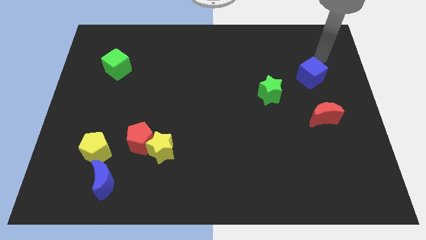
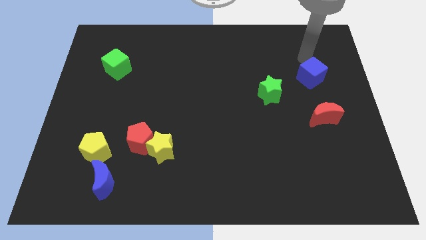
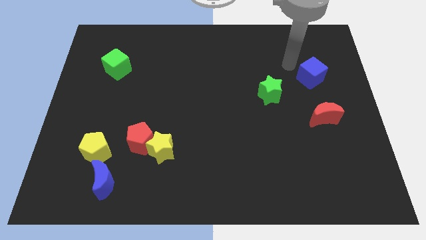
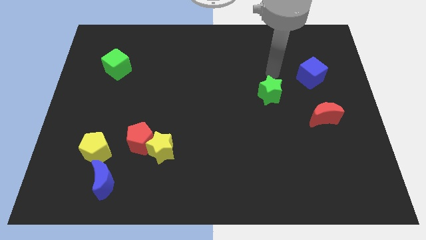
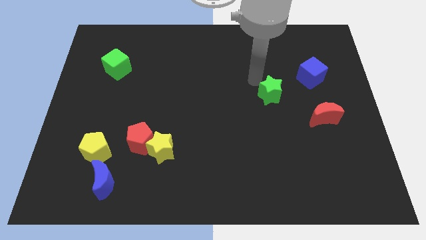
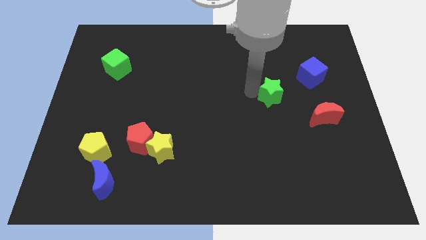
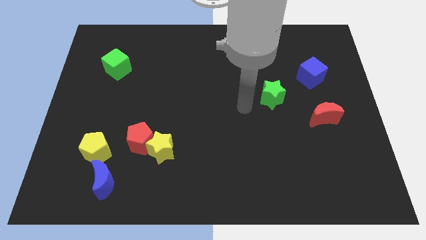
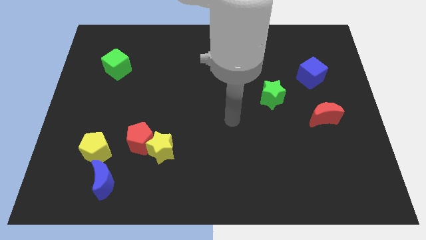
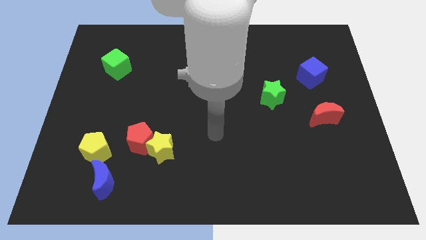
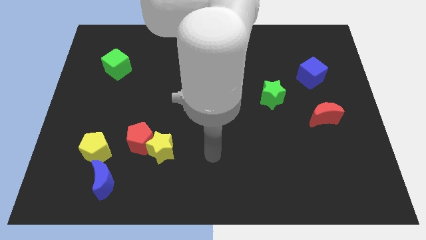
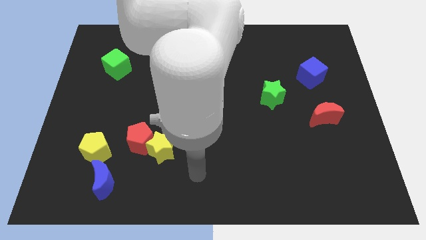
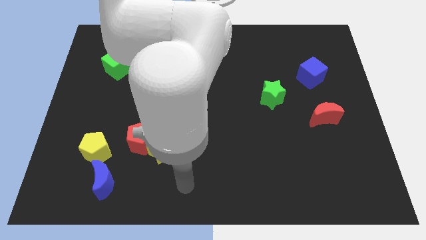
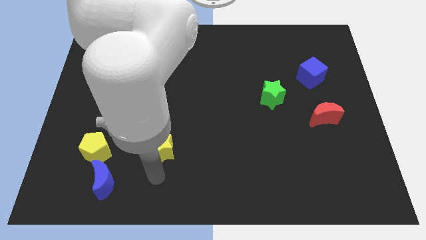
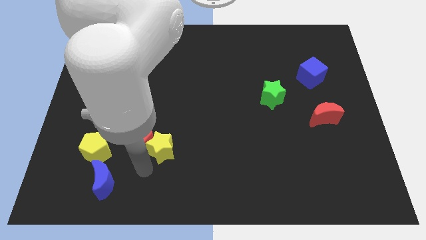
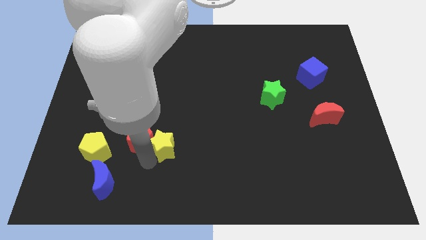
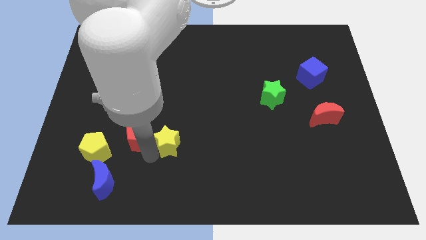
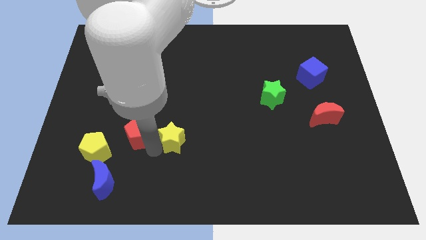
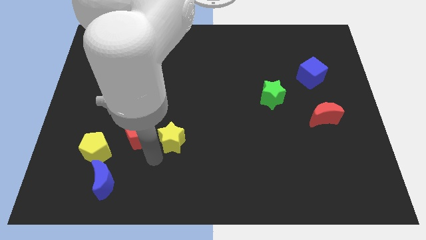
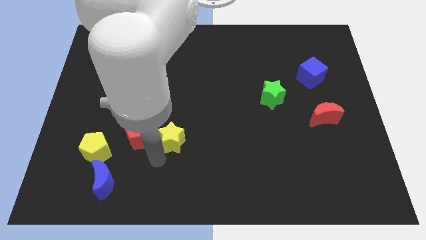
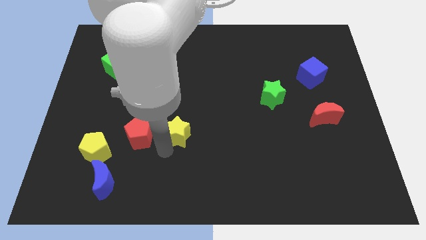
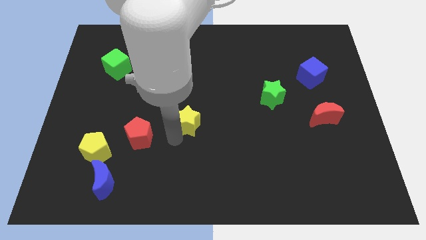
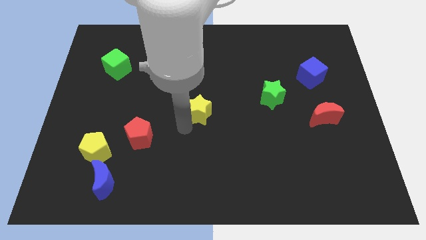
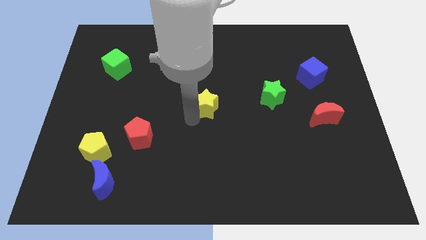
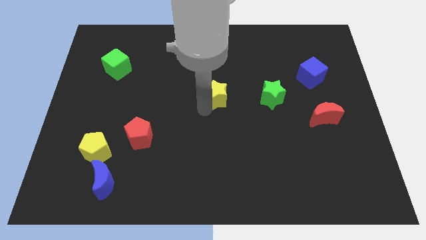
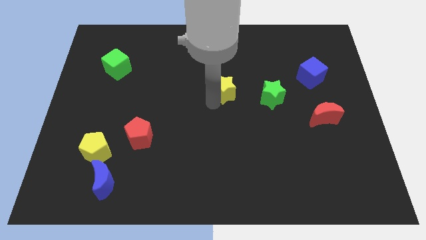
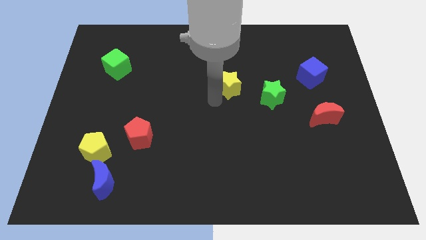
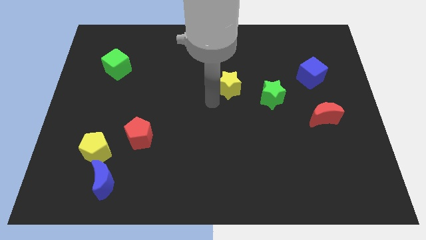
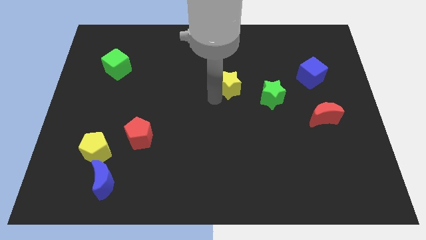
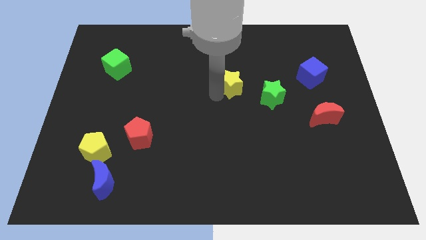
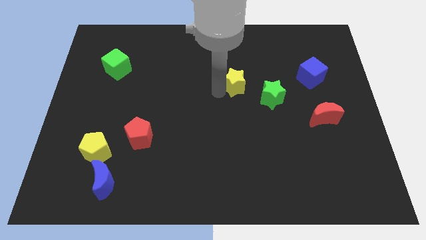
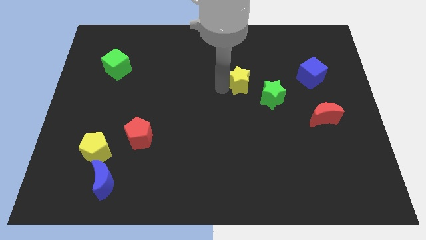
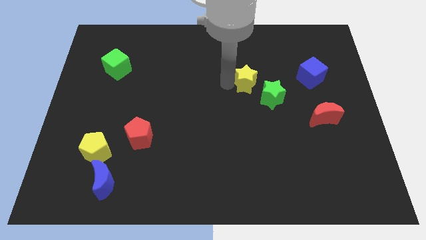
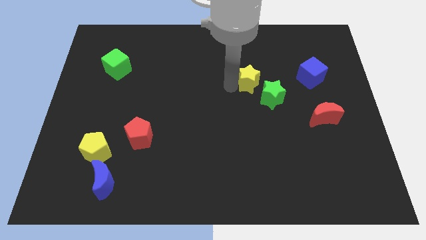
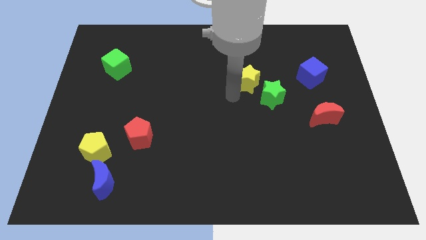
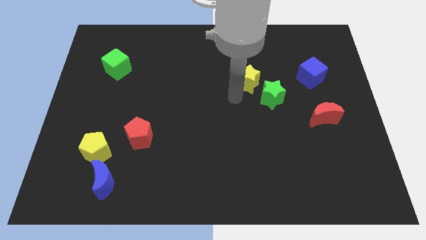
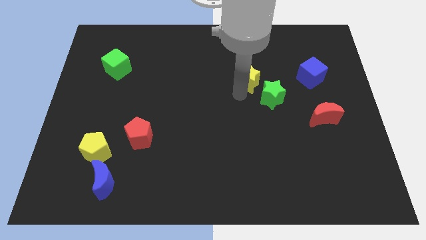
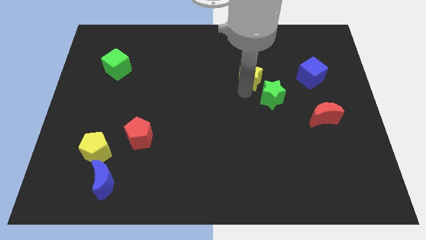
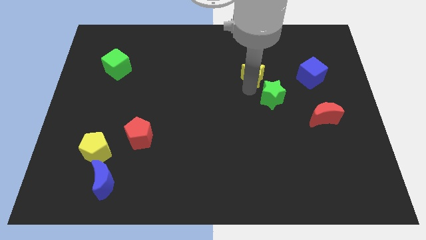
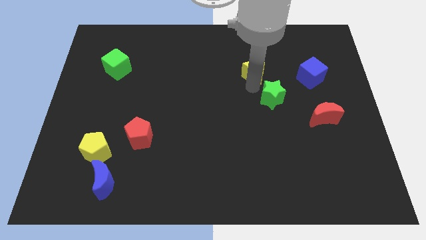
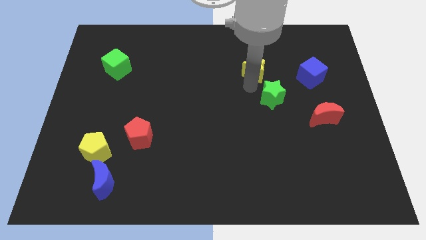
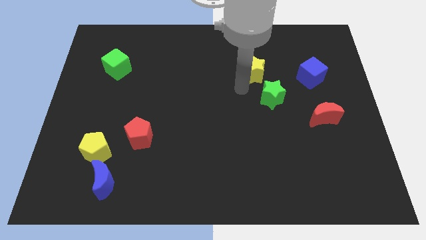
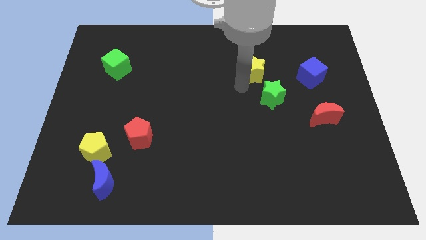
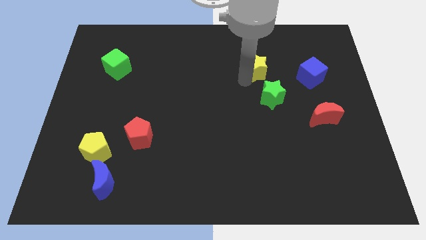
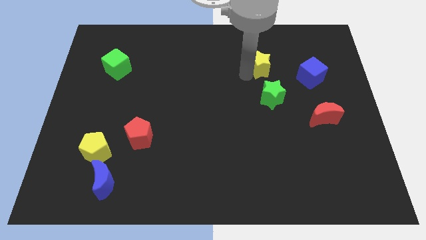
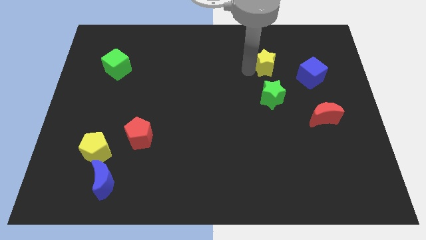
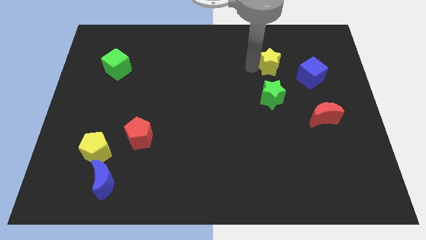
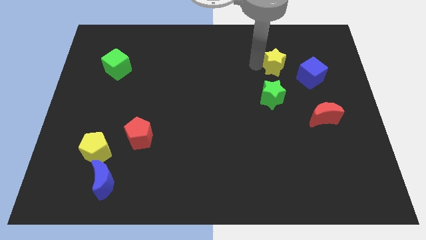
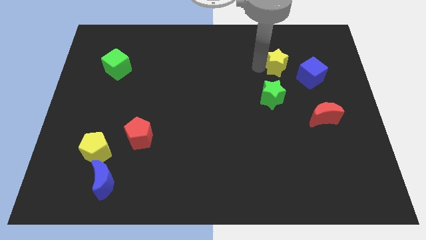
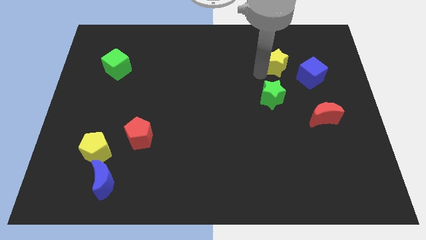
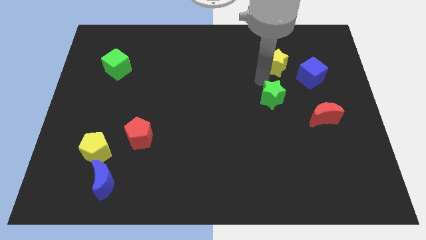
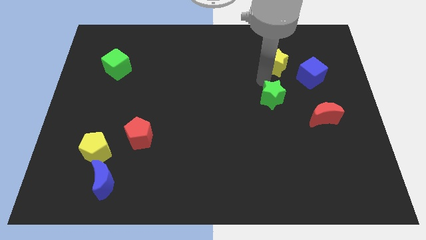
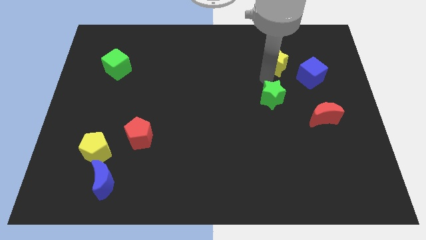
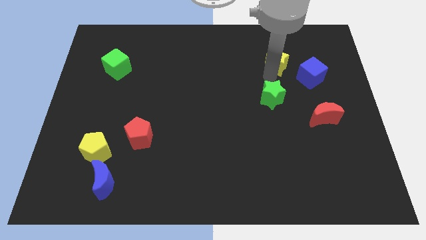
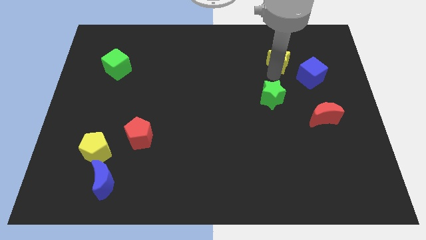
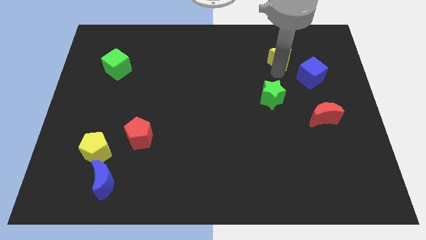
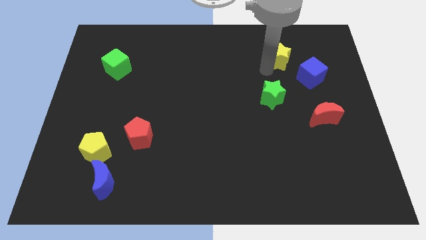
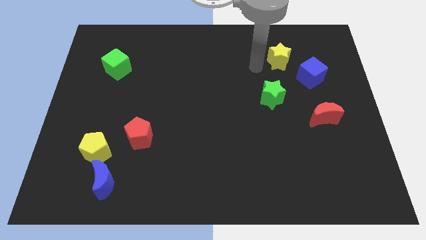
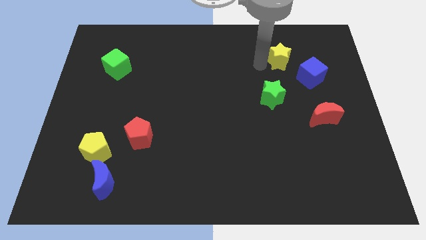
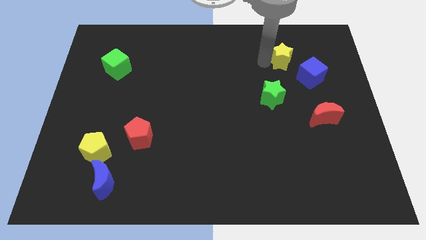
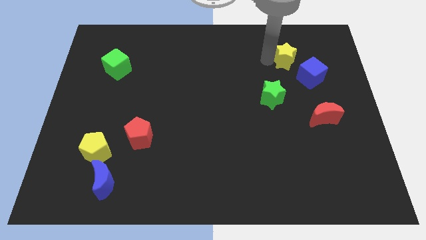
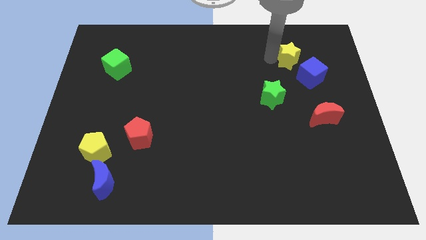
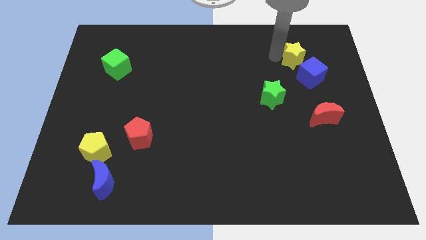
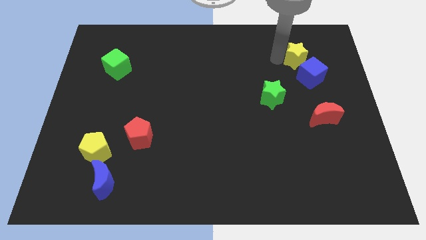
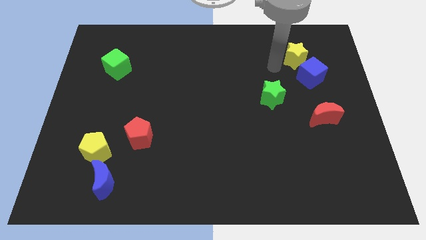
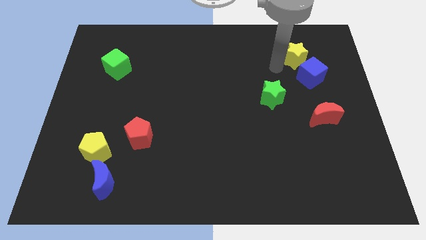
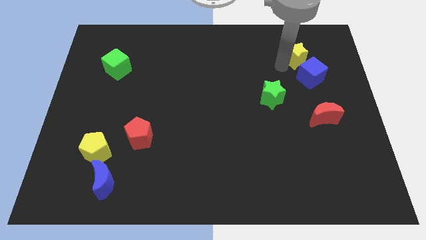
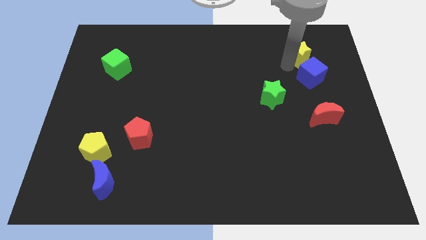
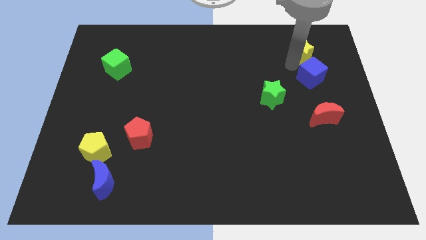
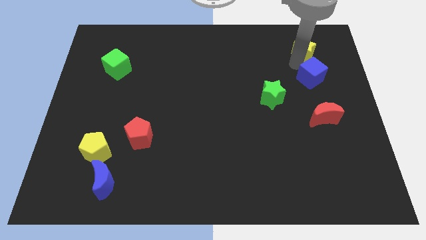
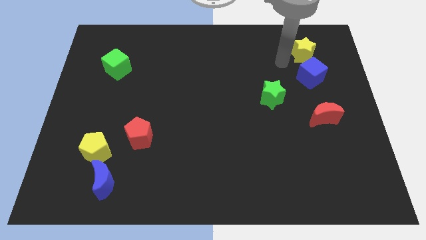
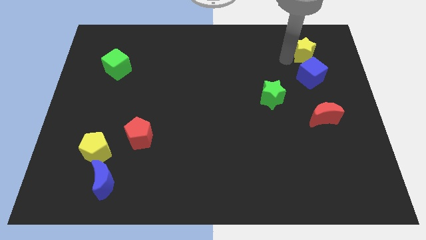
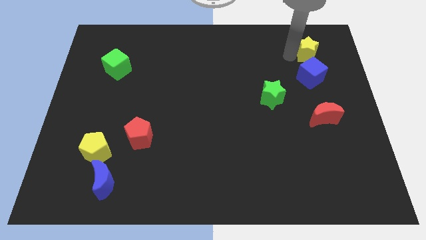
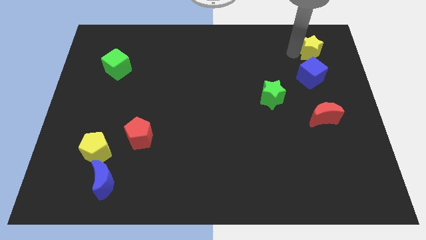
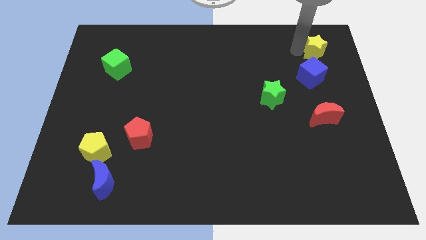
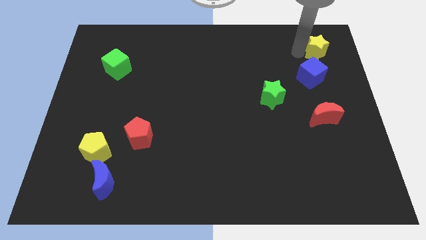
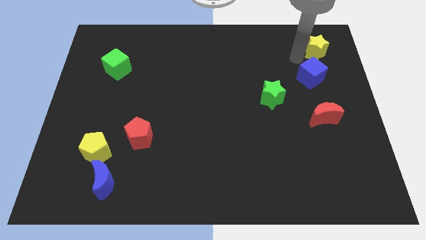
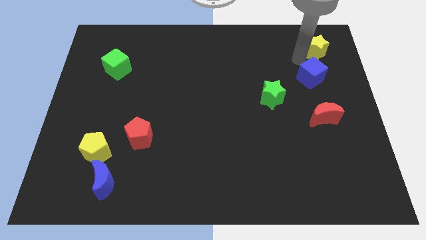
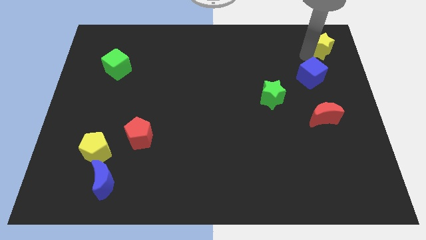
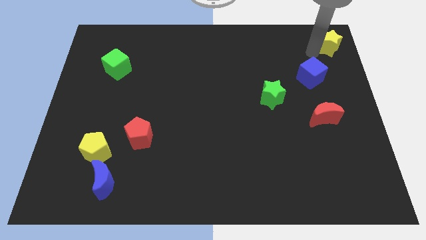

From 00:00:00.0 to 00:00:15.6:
move the yellow star to the top right
